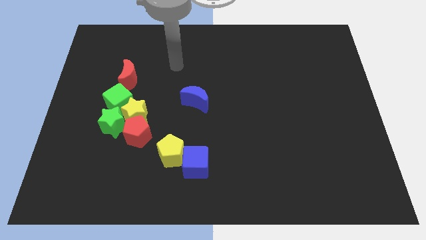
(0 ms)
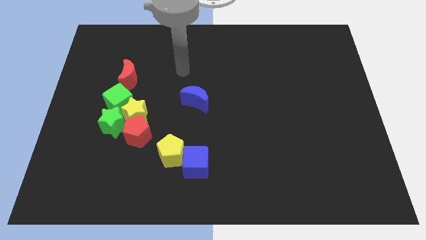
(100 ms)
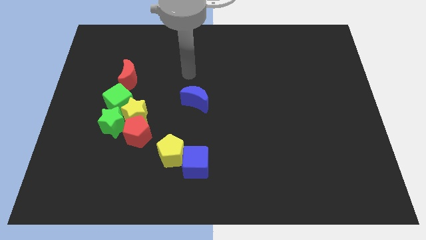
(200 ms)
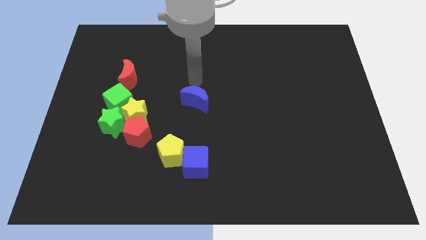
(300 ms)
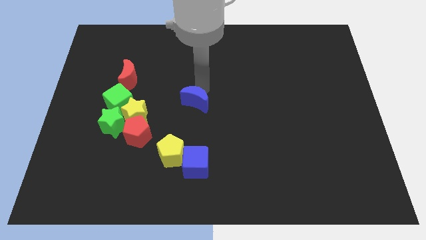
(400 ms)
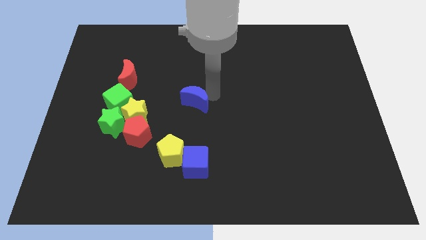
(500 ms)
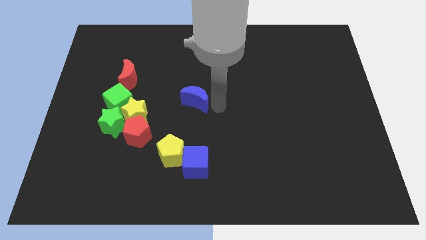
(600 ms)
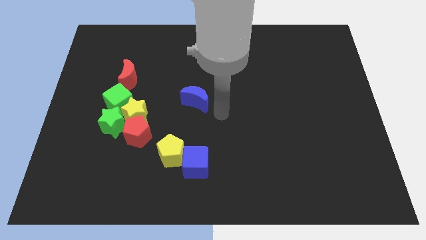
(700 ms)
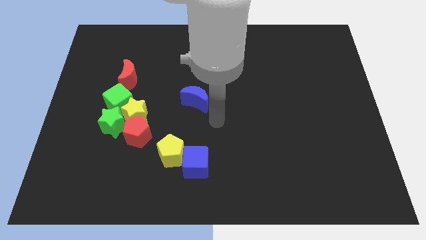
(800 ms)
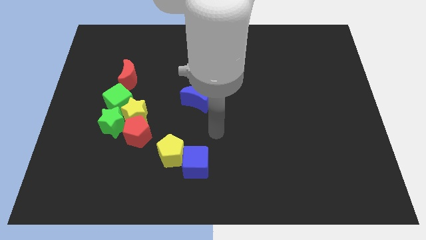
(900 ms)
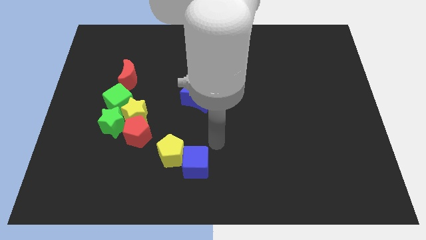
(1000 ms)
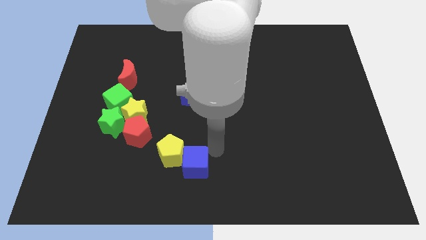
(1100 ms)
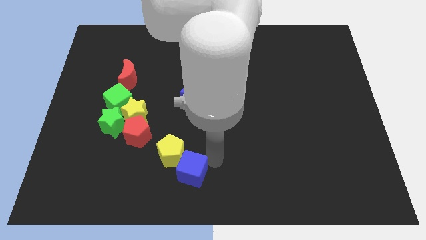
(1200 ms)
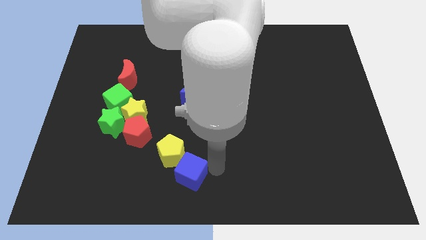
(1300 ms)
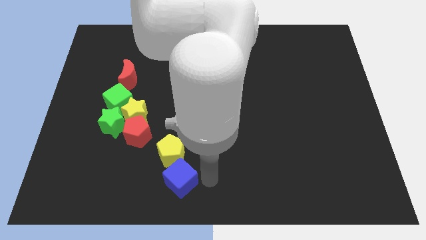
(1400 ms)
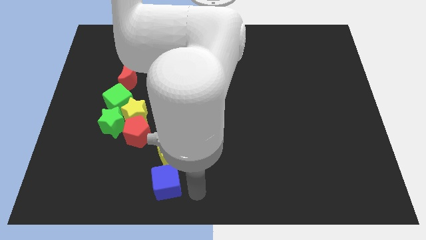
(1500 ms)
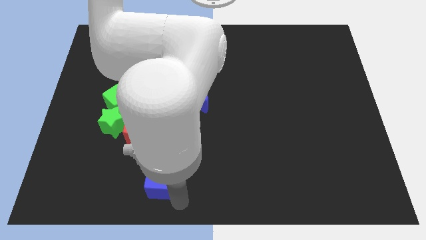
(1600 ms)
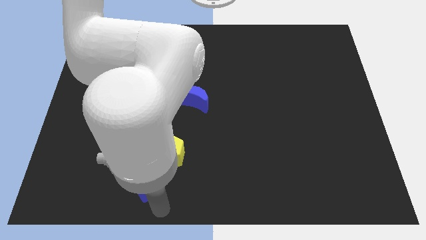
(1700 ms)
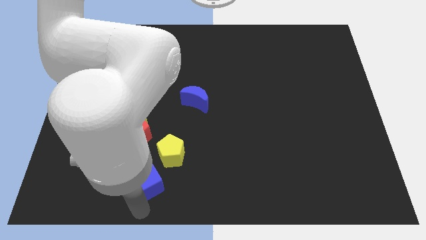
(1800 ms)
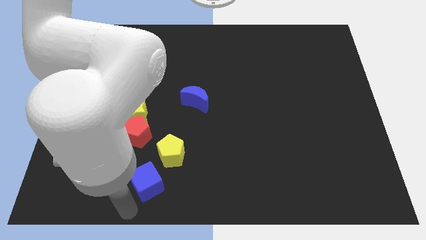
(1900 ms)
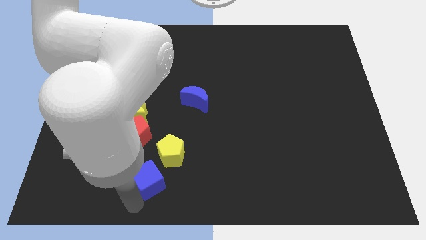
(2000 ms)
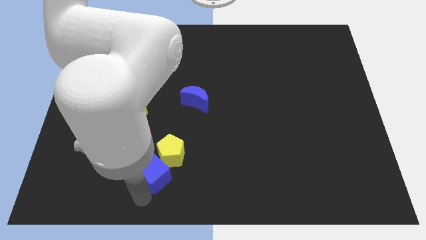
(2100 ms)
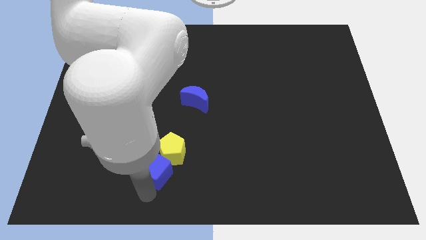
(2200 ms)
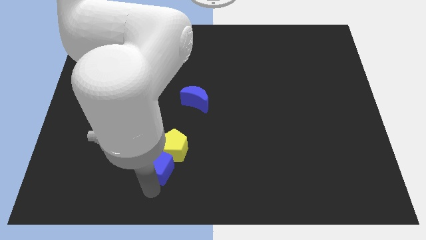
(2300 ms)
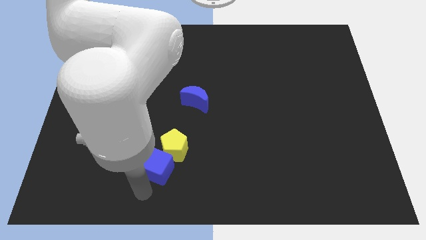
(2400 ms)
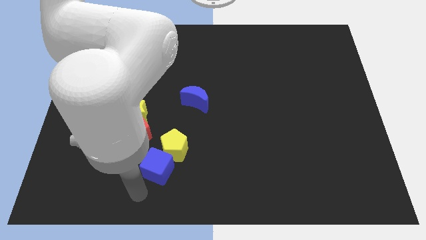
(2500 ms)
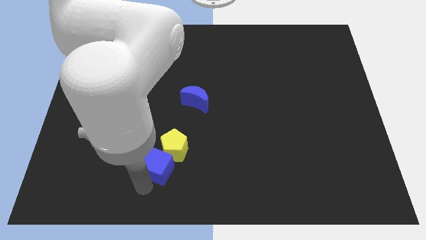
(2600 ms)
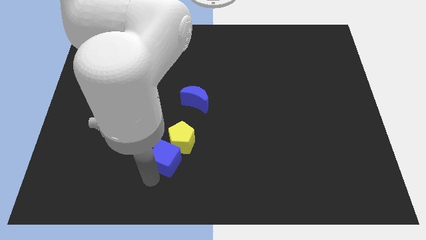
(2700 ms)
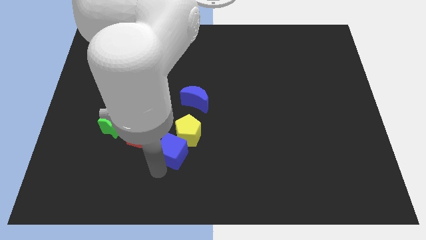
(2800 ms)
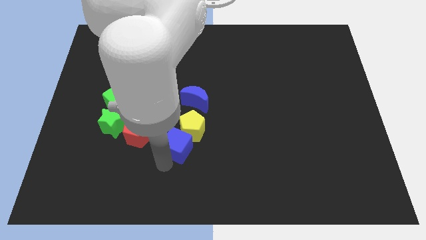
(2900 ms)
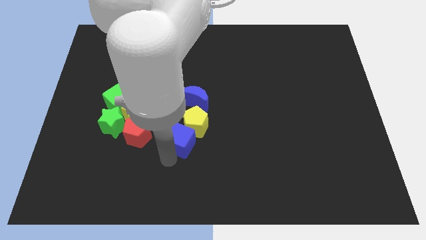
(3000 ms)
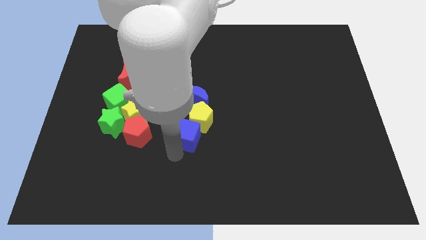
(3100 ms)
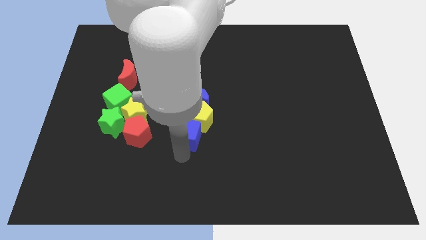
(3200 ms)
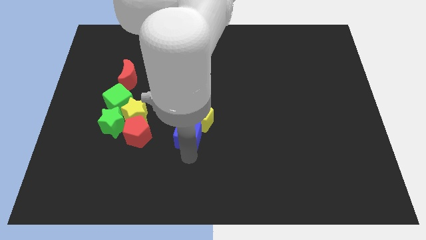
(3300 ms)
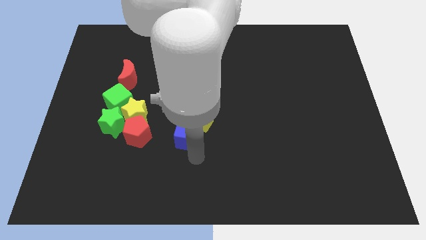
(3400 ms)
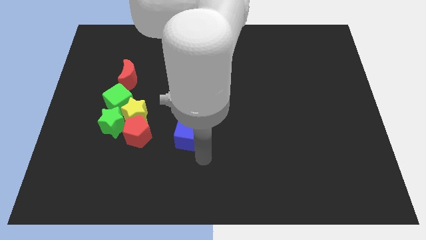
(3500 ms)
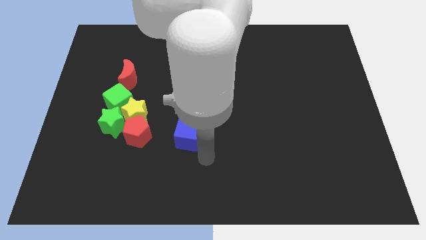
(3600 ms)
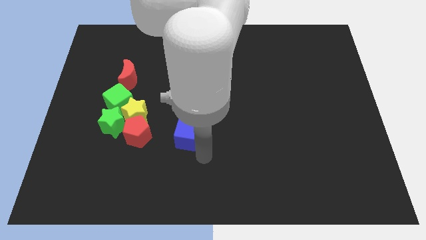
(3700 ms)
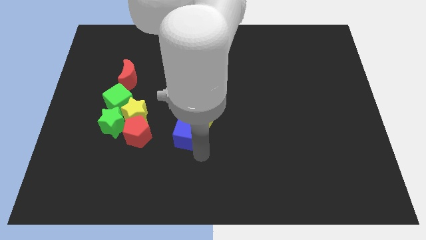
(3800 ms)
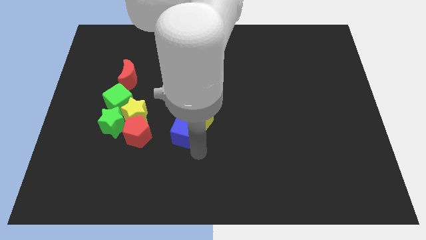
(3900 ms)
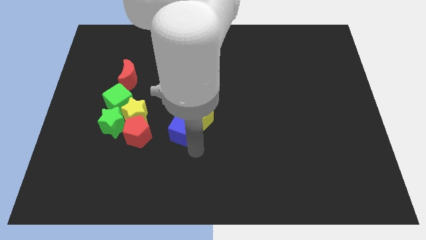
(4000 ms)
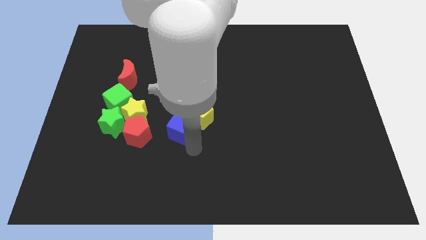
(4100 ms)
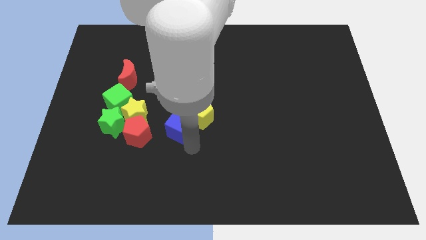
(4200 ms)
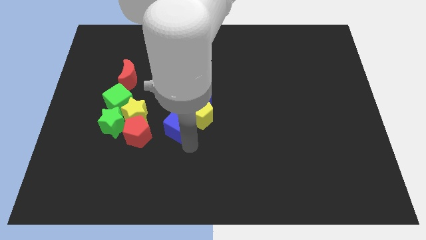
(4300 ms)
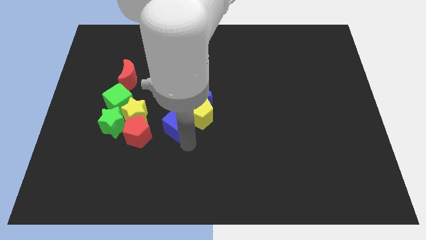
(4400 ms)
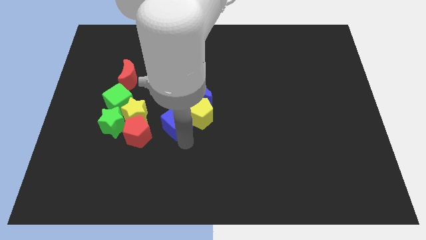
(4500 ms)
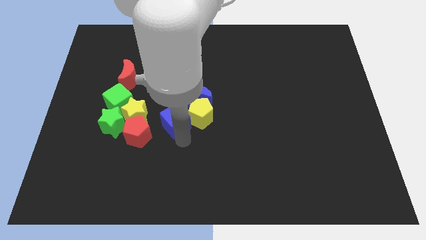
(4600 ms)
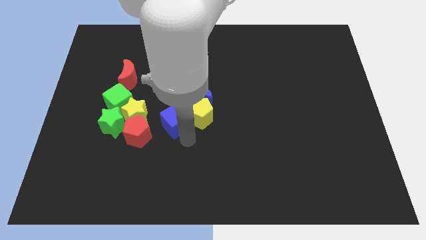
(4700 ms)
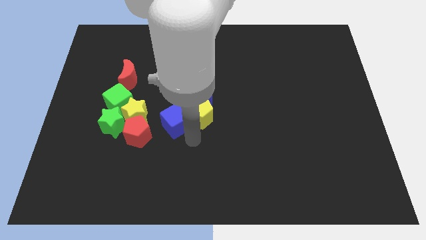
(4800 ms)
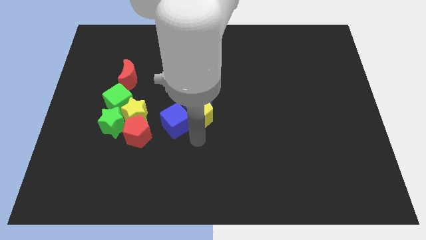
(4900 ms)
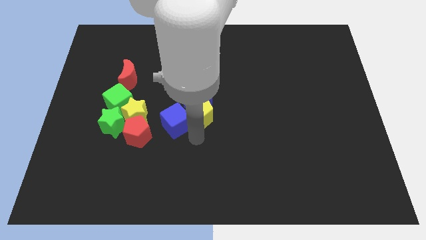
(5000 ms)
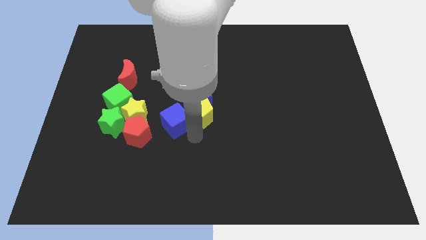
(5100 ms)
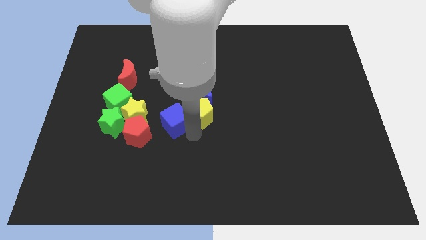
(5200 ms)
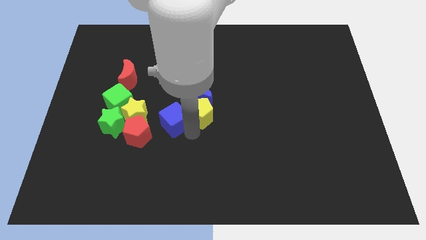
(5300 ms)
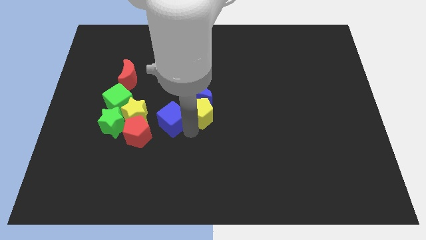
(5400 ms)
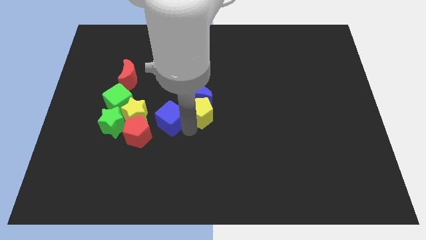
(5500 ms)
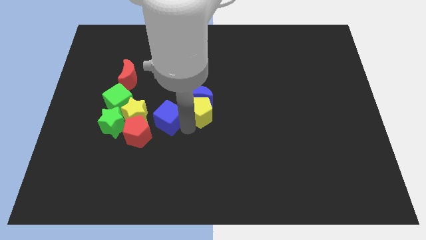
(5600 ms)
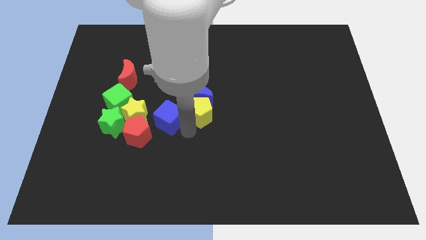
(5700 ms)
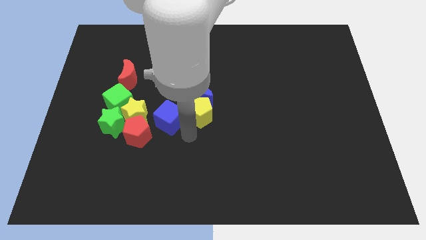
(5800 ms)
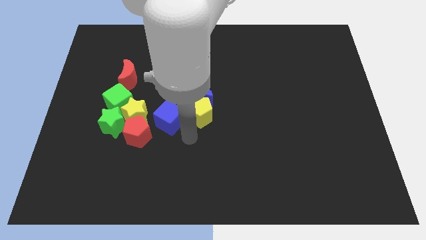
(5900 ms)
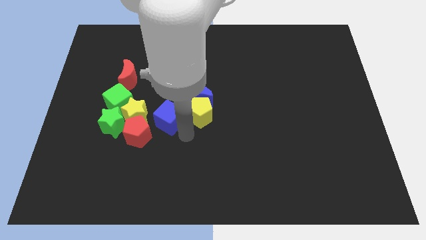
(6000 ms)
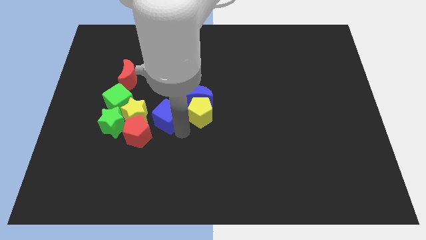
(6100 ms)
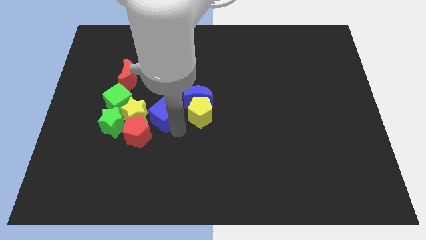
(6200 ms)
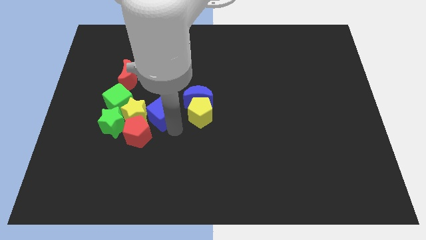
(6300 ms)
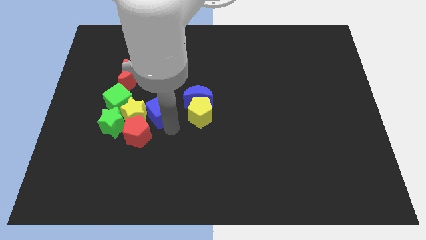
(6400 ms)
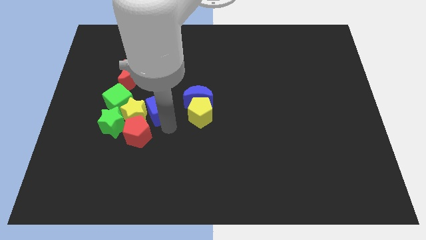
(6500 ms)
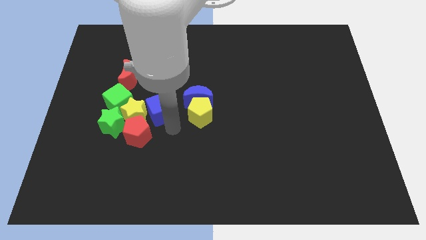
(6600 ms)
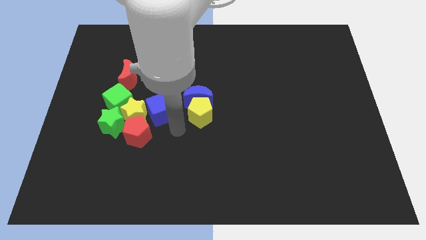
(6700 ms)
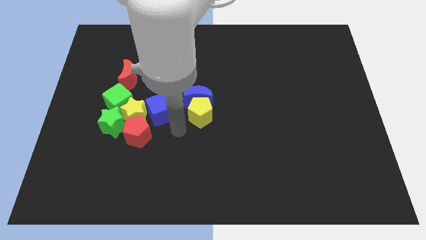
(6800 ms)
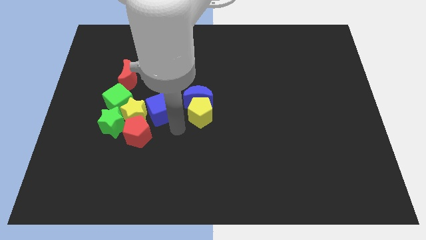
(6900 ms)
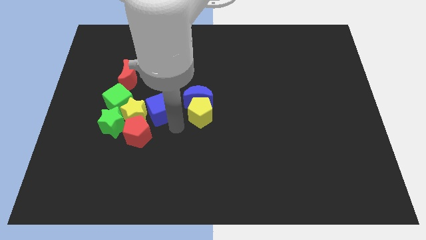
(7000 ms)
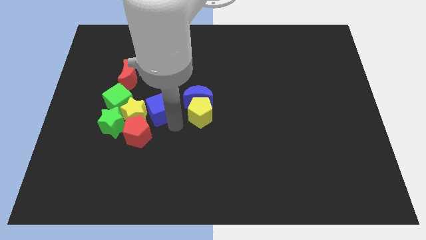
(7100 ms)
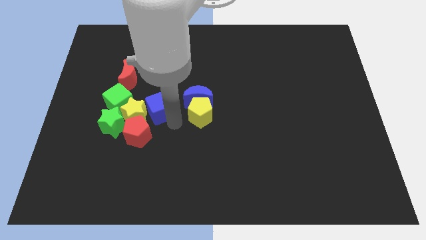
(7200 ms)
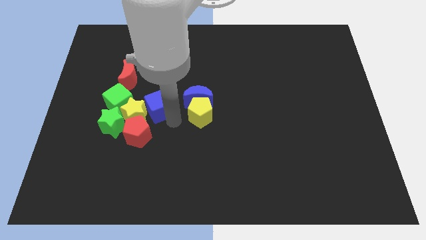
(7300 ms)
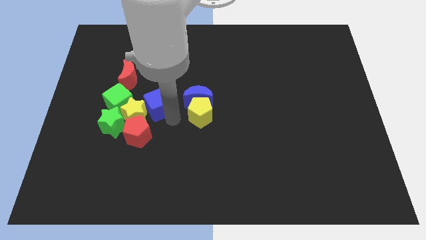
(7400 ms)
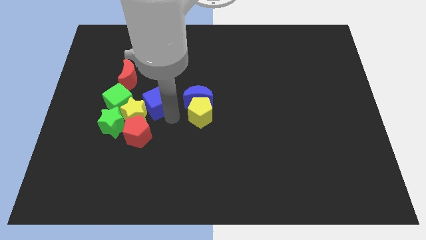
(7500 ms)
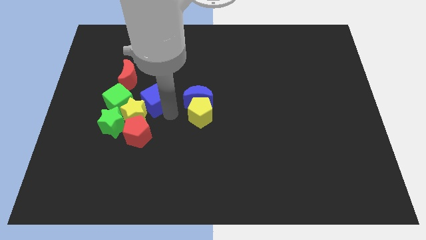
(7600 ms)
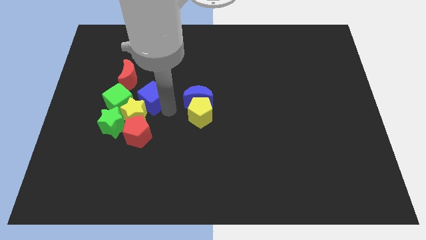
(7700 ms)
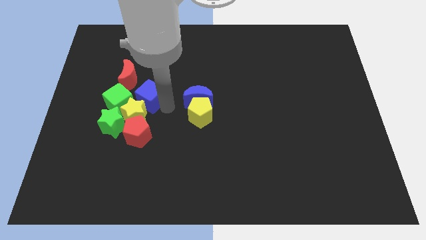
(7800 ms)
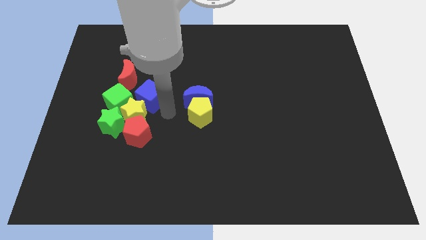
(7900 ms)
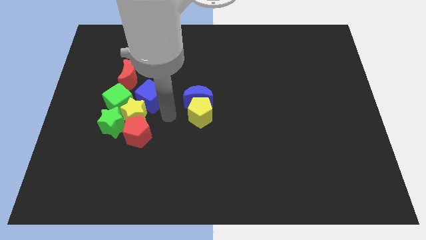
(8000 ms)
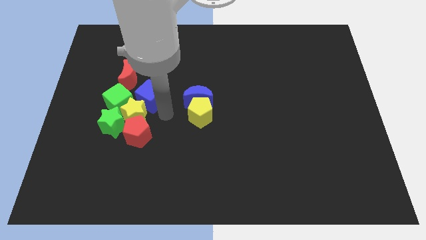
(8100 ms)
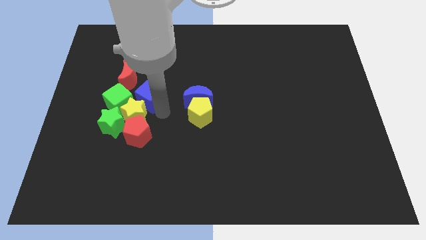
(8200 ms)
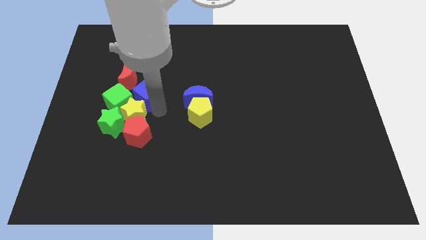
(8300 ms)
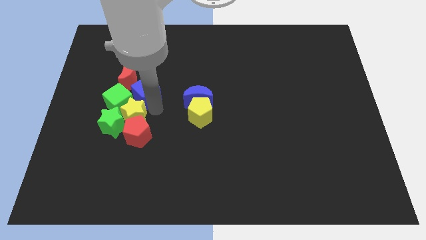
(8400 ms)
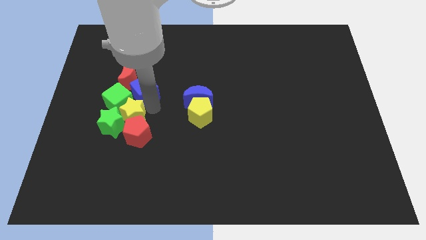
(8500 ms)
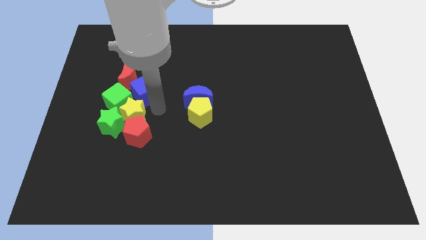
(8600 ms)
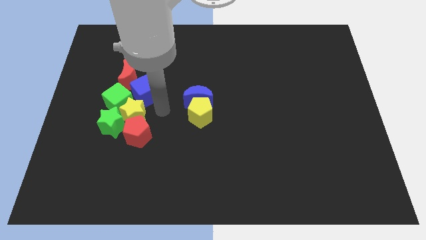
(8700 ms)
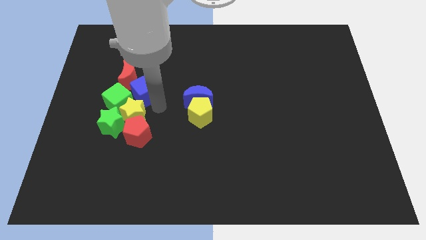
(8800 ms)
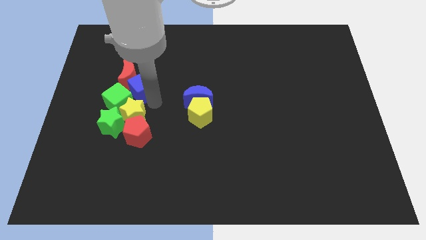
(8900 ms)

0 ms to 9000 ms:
move the blue cube towards the red moon
